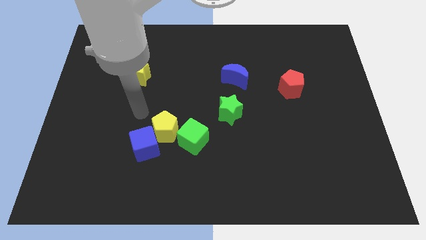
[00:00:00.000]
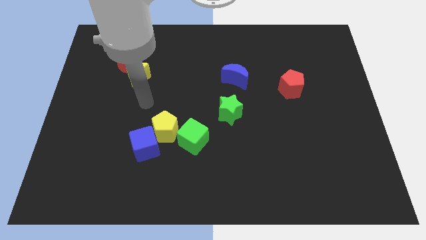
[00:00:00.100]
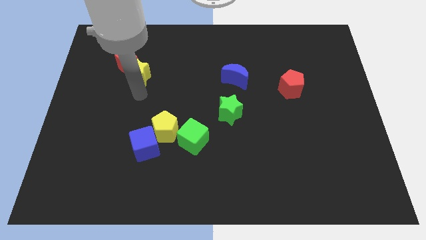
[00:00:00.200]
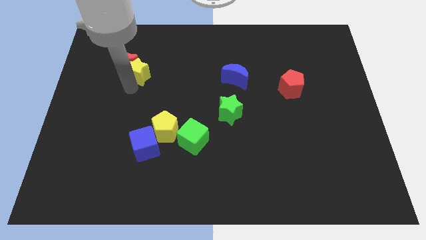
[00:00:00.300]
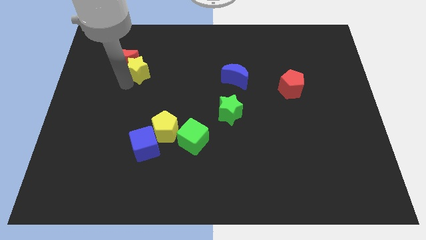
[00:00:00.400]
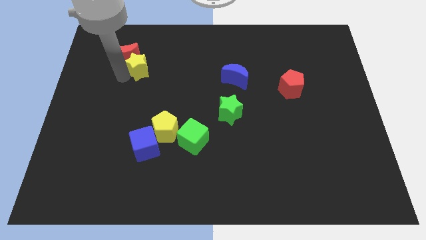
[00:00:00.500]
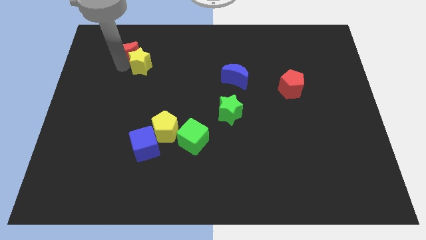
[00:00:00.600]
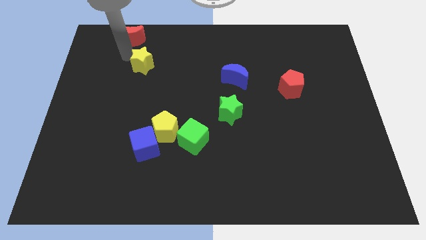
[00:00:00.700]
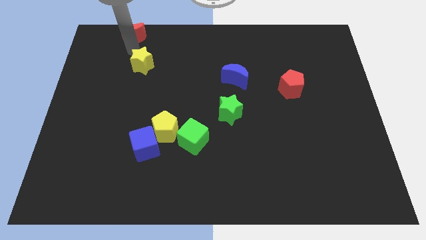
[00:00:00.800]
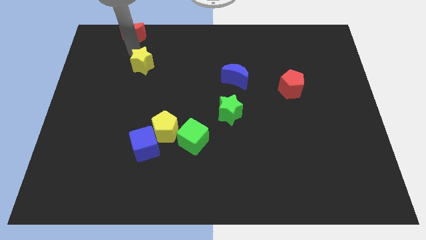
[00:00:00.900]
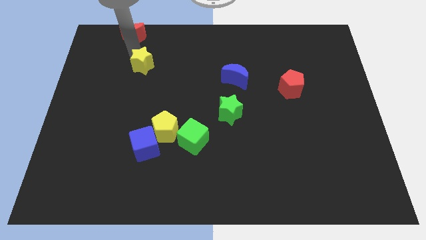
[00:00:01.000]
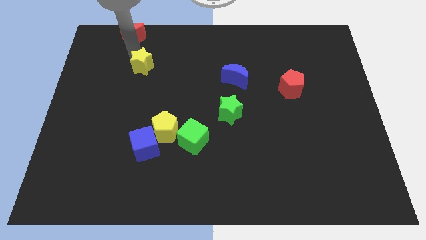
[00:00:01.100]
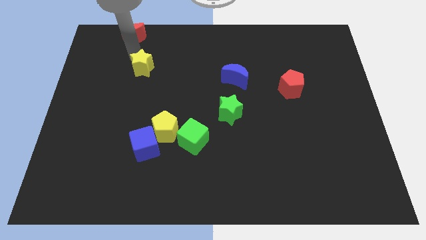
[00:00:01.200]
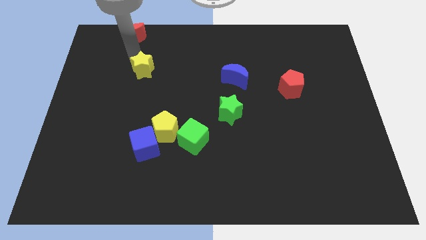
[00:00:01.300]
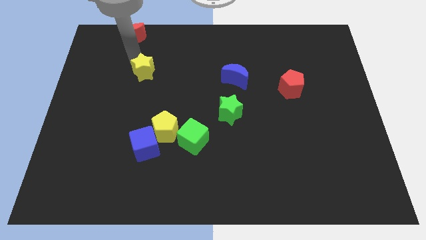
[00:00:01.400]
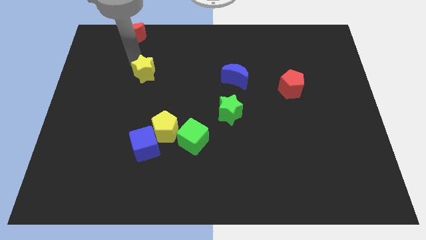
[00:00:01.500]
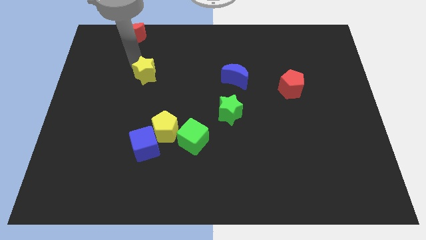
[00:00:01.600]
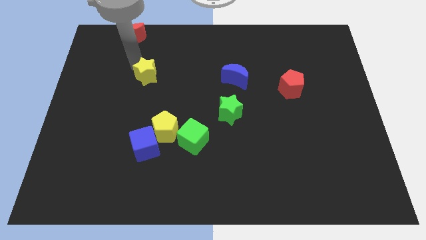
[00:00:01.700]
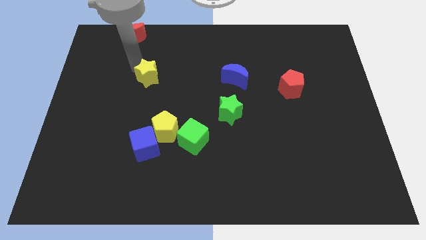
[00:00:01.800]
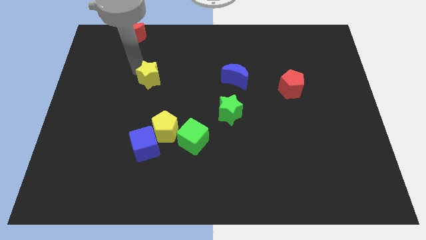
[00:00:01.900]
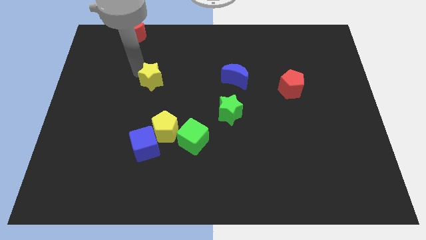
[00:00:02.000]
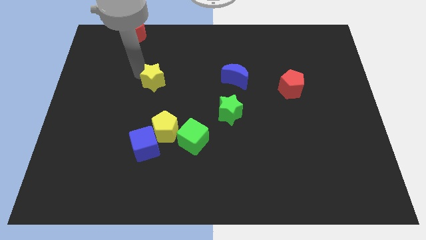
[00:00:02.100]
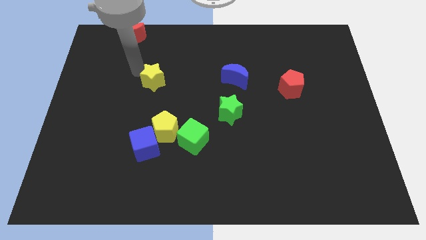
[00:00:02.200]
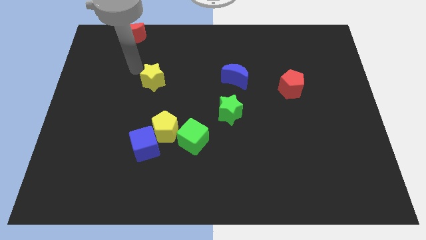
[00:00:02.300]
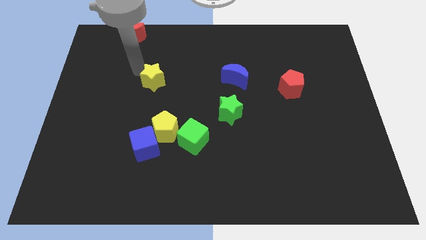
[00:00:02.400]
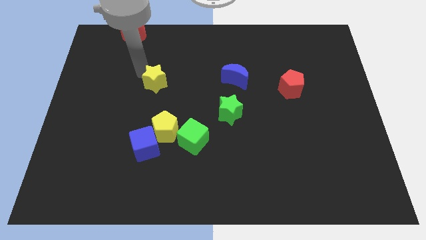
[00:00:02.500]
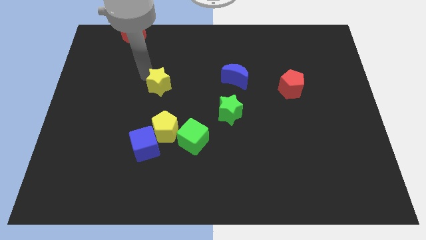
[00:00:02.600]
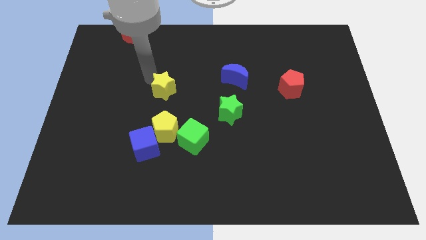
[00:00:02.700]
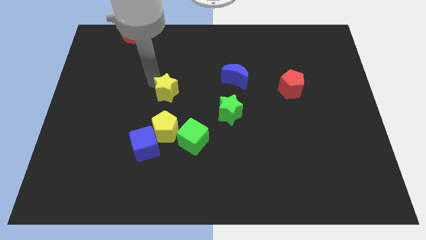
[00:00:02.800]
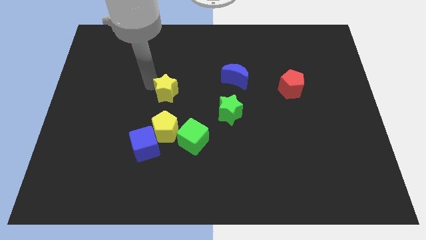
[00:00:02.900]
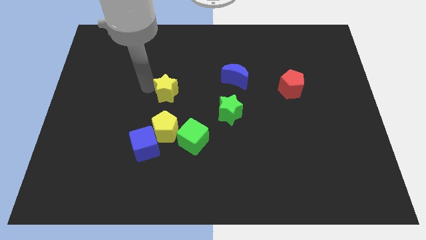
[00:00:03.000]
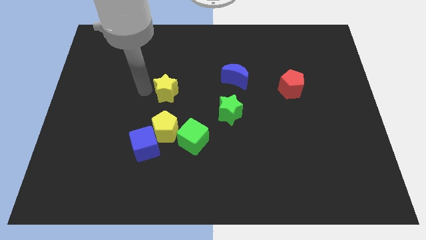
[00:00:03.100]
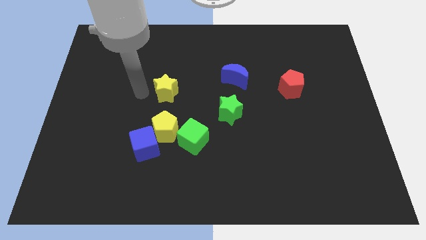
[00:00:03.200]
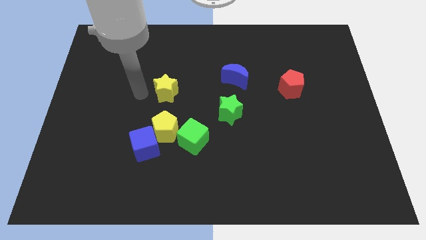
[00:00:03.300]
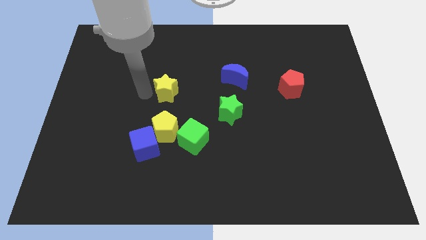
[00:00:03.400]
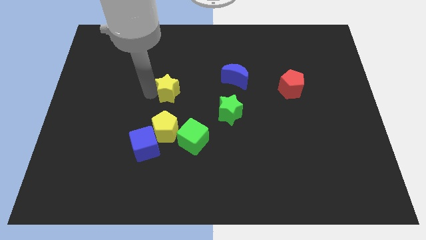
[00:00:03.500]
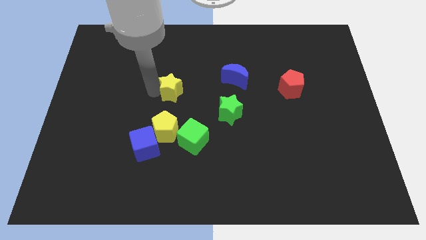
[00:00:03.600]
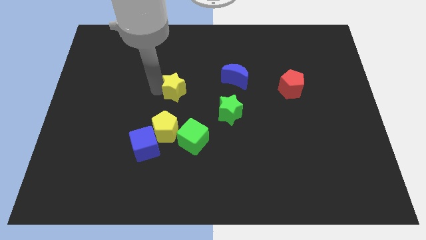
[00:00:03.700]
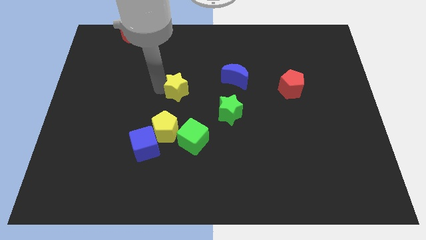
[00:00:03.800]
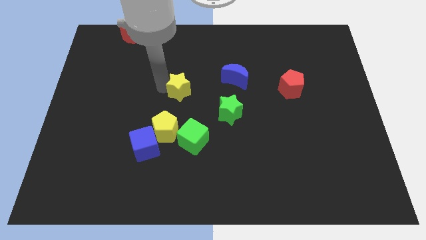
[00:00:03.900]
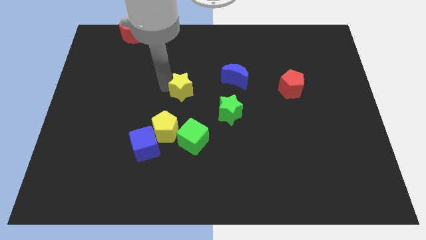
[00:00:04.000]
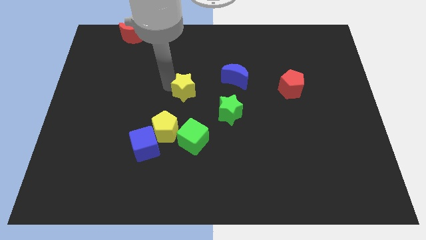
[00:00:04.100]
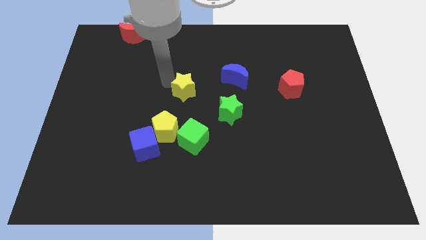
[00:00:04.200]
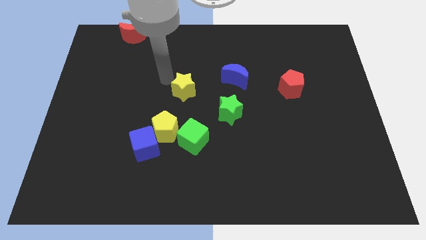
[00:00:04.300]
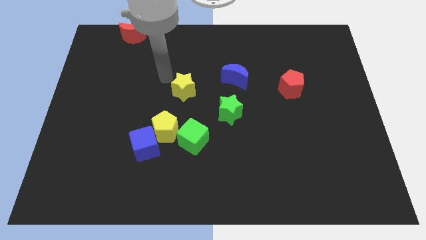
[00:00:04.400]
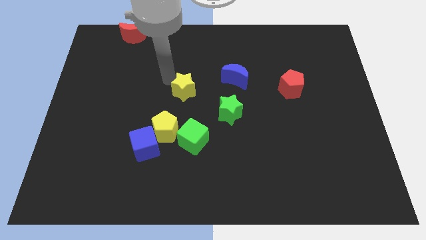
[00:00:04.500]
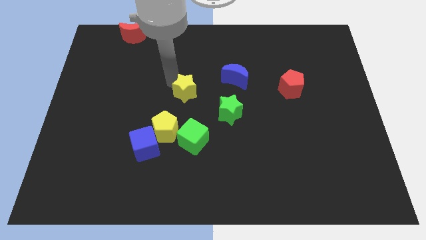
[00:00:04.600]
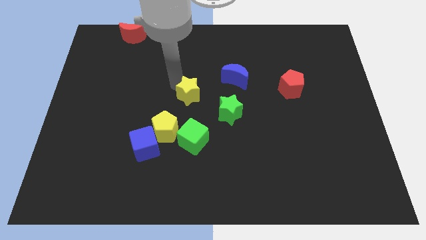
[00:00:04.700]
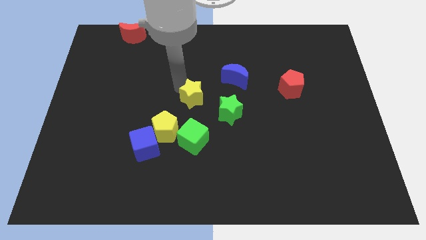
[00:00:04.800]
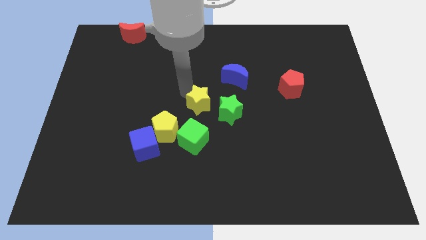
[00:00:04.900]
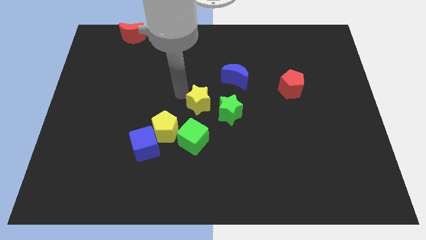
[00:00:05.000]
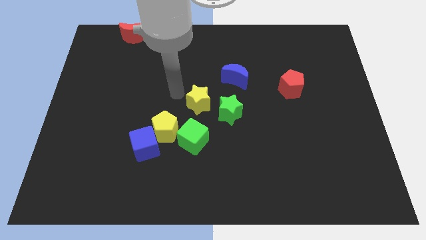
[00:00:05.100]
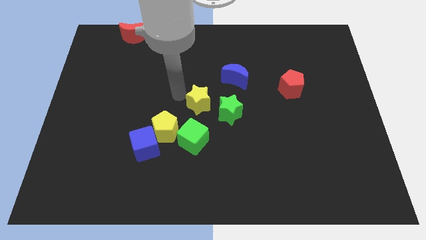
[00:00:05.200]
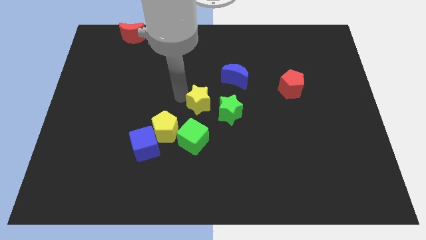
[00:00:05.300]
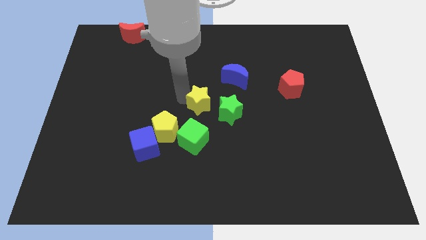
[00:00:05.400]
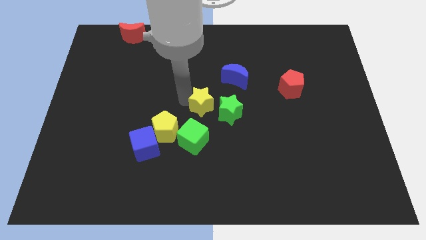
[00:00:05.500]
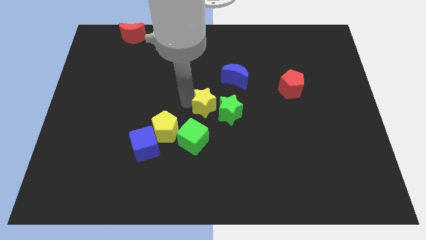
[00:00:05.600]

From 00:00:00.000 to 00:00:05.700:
put the yellow star close to the green star

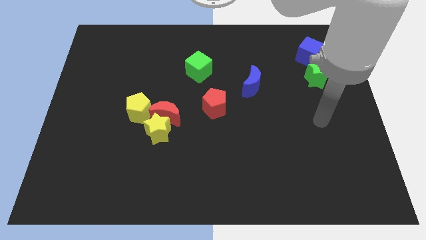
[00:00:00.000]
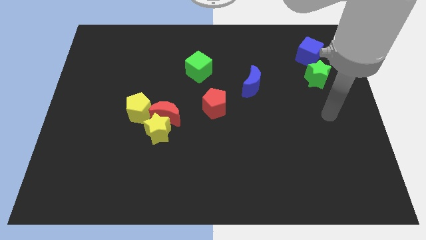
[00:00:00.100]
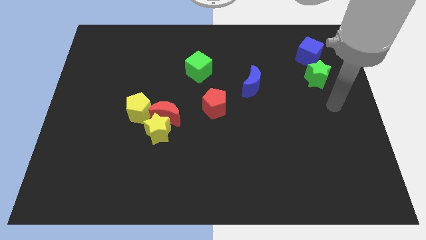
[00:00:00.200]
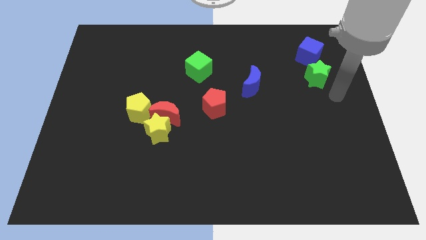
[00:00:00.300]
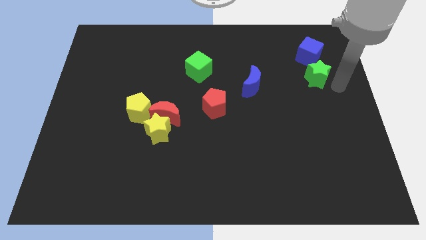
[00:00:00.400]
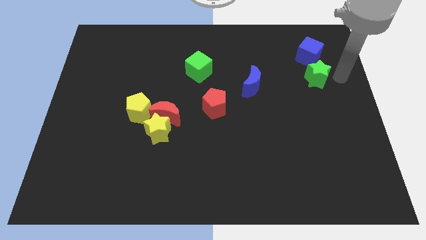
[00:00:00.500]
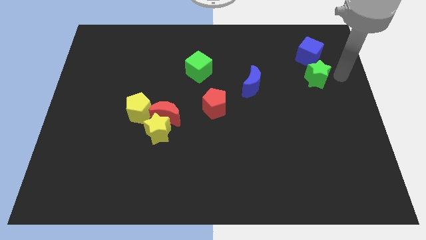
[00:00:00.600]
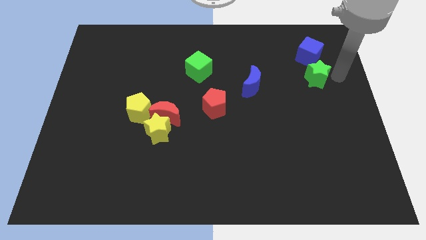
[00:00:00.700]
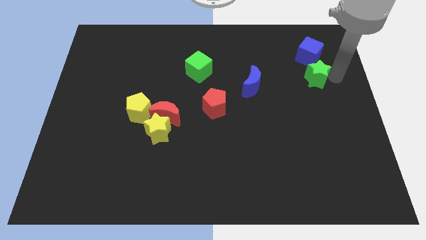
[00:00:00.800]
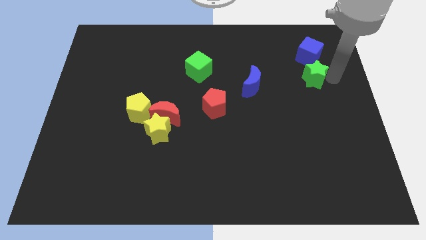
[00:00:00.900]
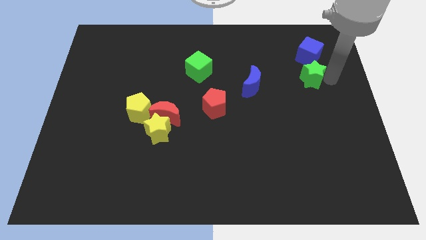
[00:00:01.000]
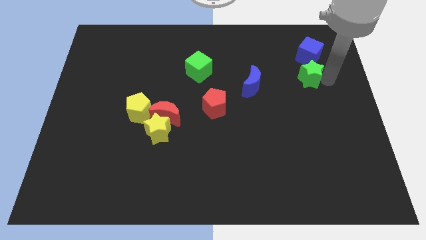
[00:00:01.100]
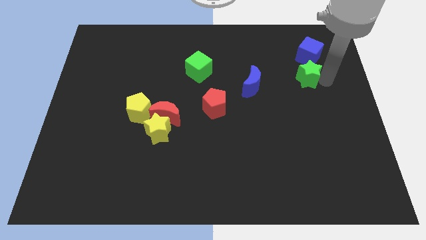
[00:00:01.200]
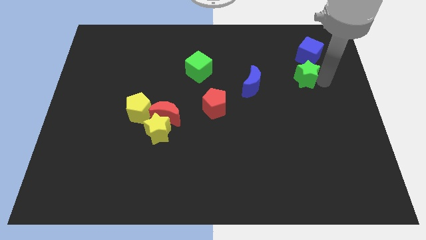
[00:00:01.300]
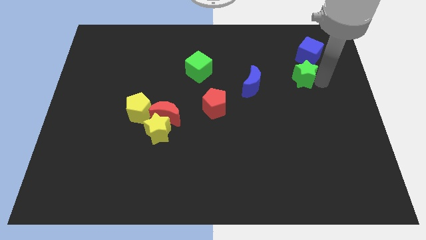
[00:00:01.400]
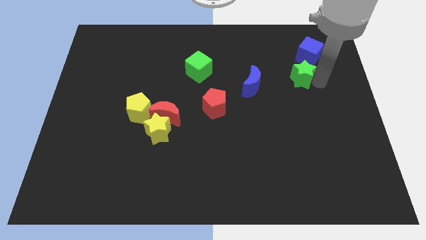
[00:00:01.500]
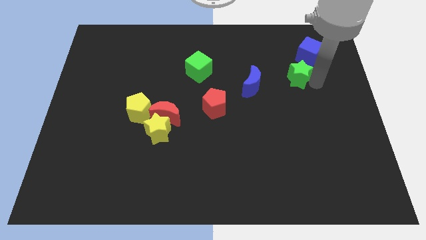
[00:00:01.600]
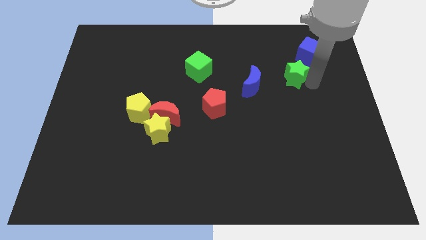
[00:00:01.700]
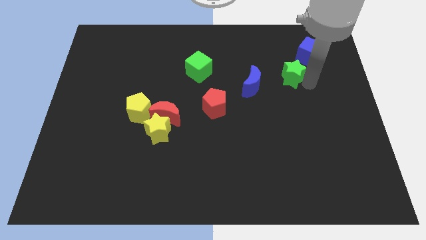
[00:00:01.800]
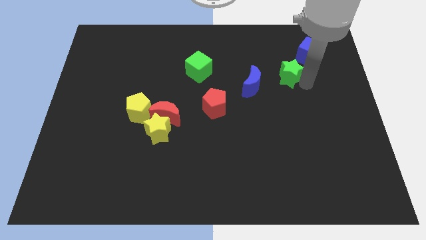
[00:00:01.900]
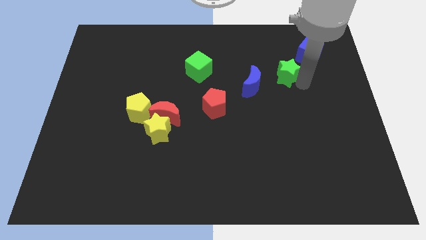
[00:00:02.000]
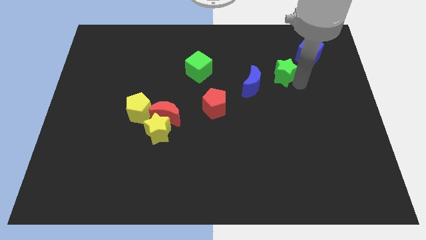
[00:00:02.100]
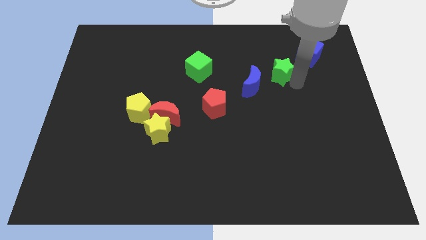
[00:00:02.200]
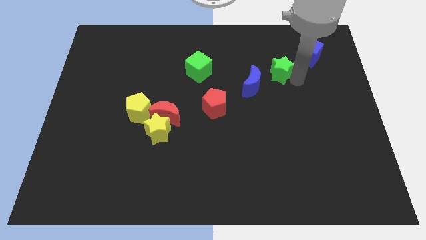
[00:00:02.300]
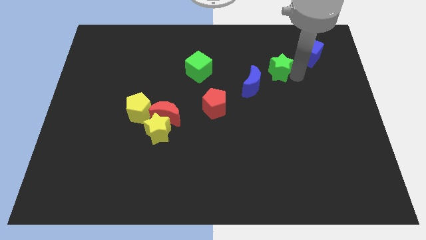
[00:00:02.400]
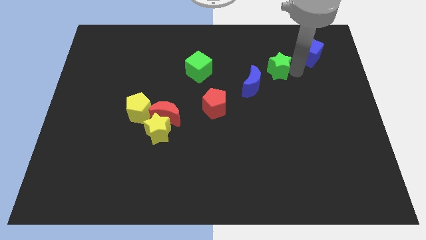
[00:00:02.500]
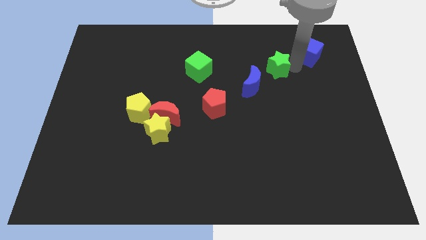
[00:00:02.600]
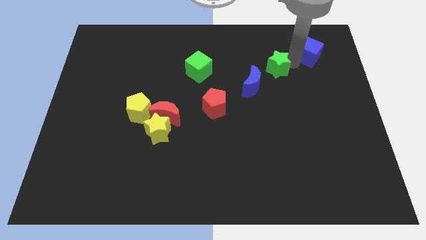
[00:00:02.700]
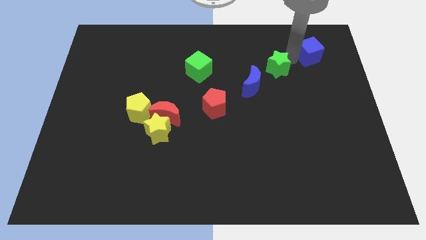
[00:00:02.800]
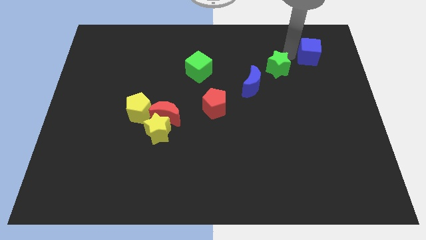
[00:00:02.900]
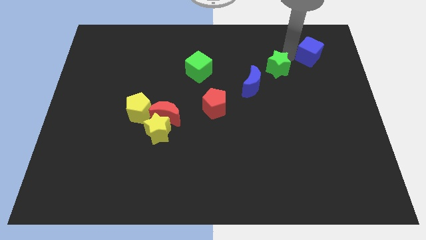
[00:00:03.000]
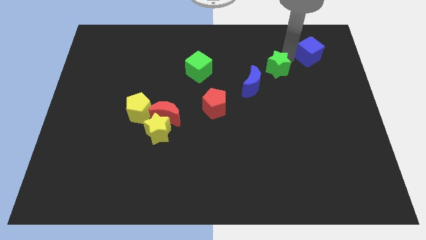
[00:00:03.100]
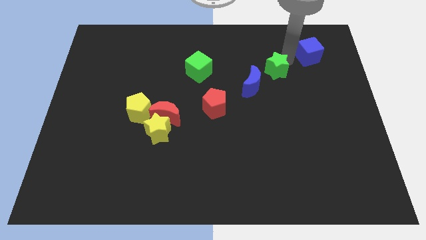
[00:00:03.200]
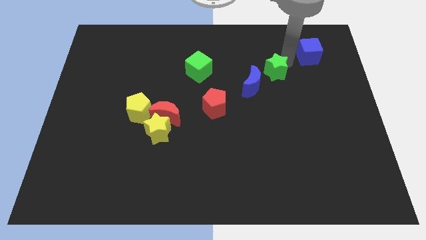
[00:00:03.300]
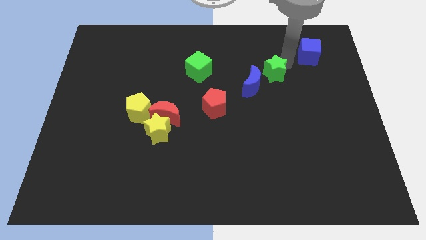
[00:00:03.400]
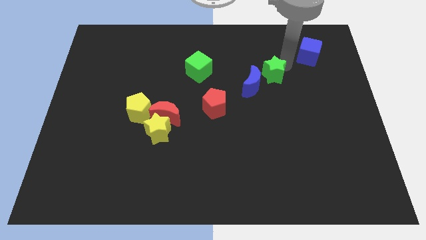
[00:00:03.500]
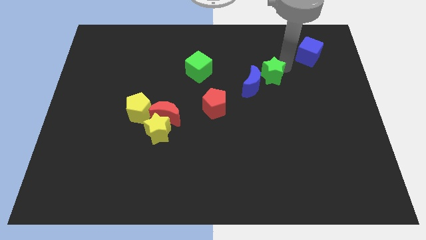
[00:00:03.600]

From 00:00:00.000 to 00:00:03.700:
put the green star to the blue moon
